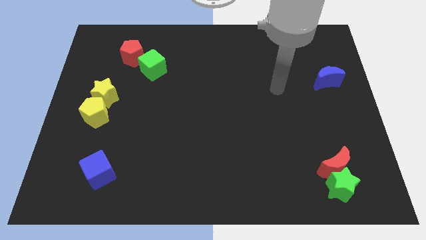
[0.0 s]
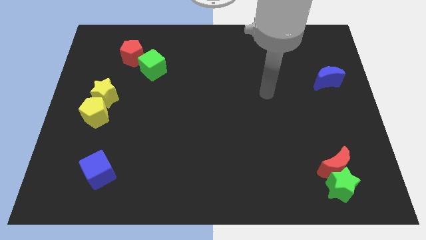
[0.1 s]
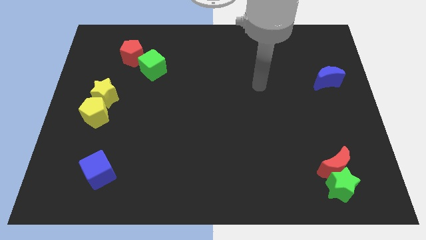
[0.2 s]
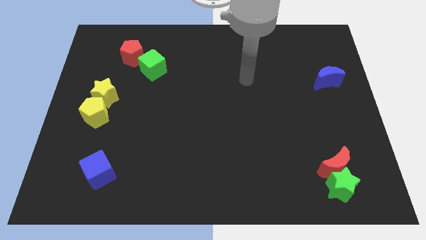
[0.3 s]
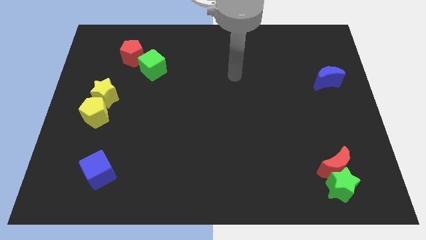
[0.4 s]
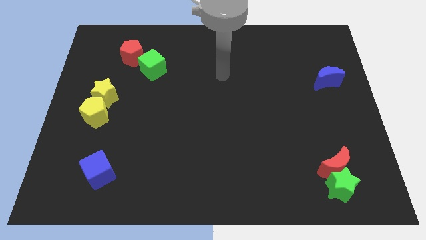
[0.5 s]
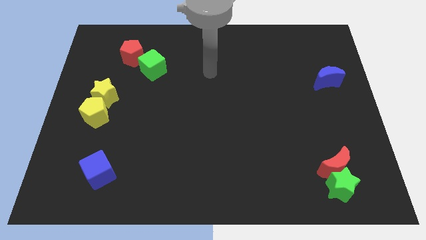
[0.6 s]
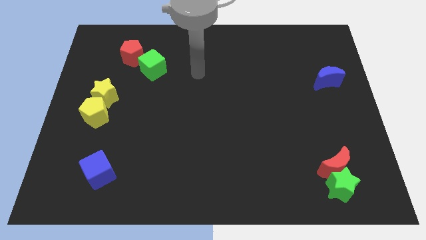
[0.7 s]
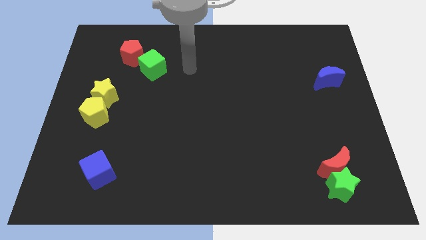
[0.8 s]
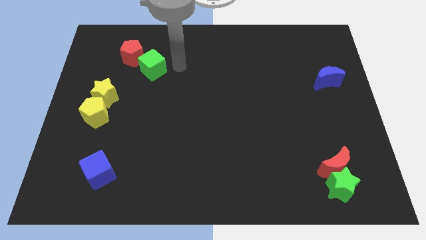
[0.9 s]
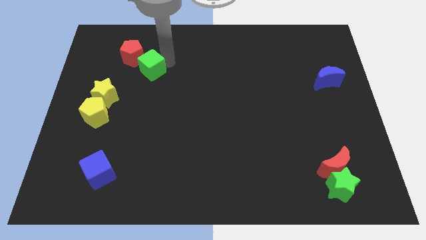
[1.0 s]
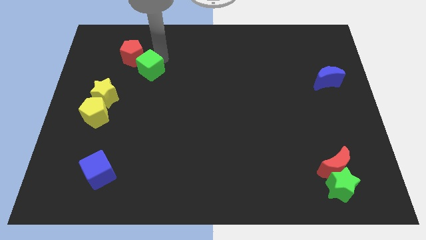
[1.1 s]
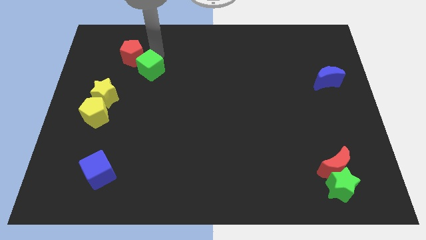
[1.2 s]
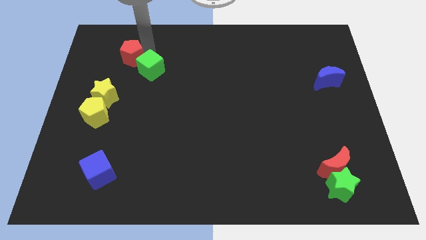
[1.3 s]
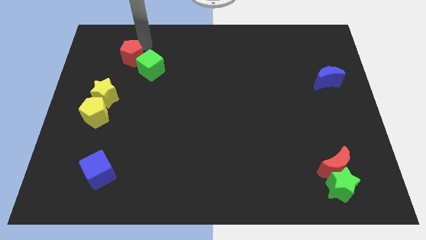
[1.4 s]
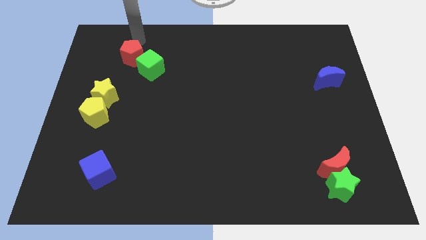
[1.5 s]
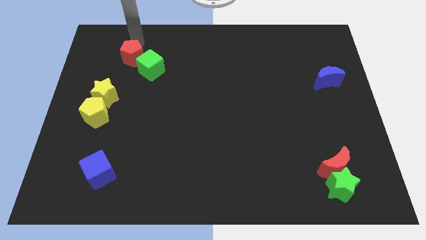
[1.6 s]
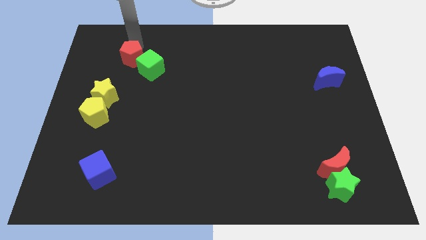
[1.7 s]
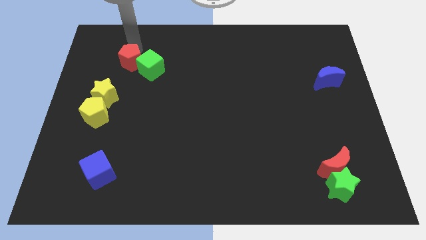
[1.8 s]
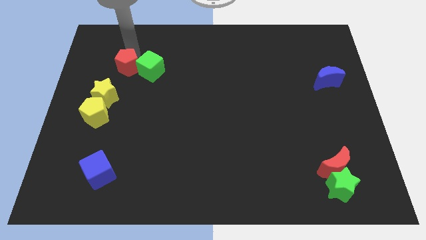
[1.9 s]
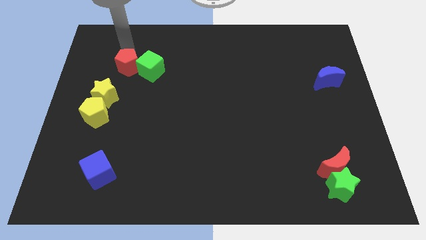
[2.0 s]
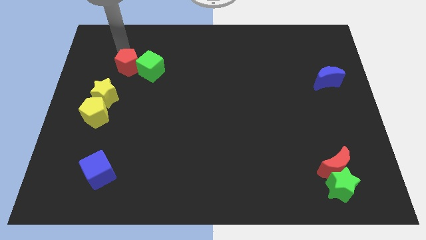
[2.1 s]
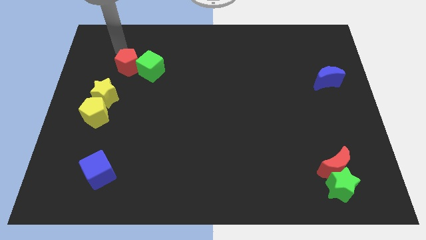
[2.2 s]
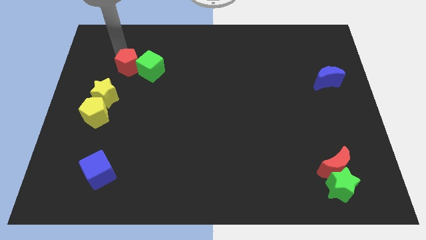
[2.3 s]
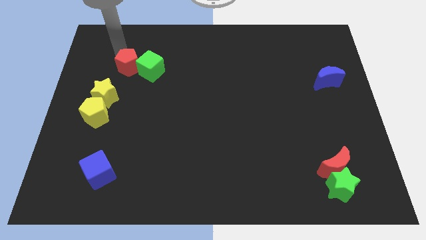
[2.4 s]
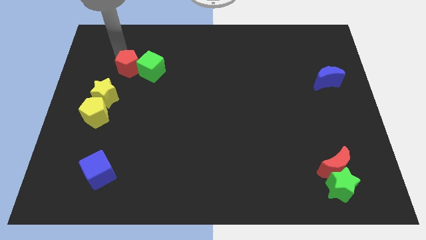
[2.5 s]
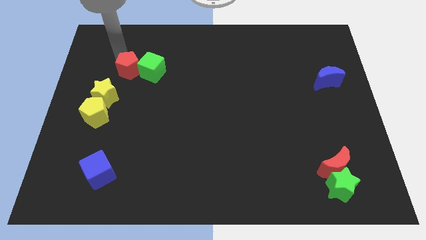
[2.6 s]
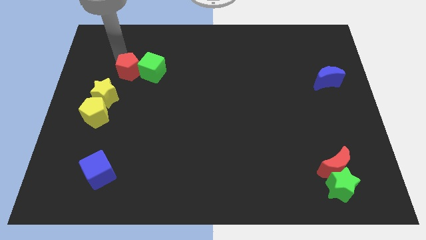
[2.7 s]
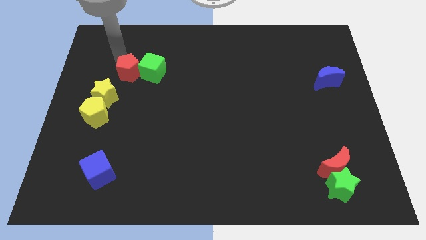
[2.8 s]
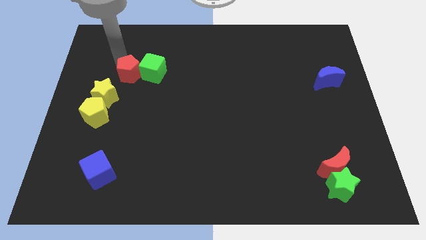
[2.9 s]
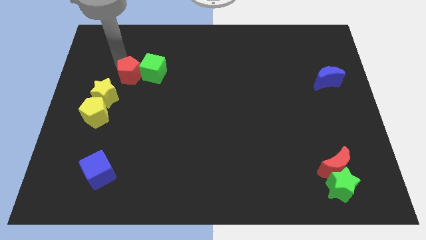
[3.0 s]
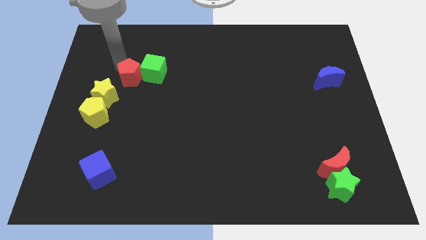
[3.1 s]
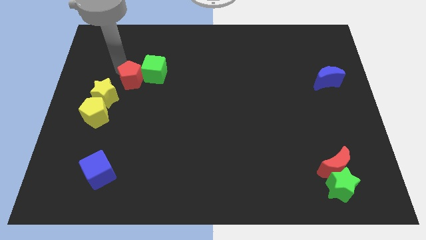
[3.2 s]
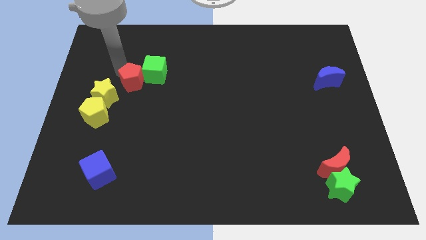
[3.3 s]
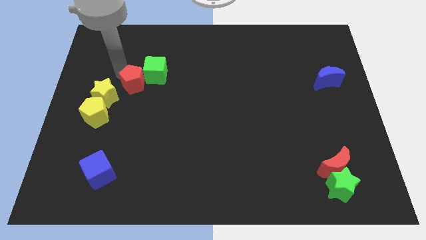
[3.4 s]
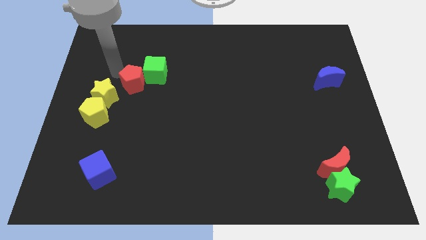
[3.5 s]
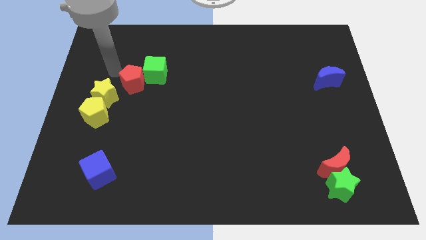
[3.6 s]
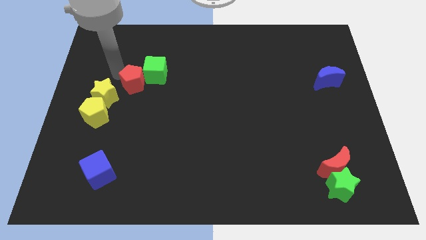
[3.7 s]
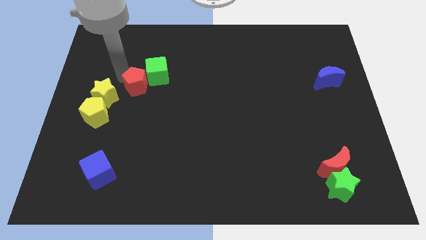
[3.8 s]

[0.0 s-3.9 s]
slightly move the red pentagon down and to the right

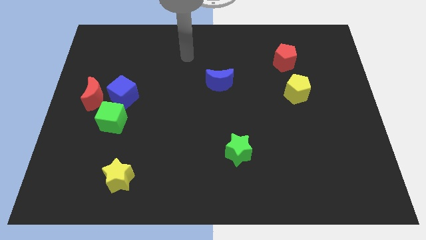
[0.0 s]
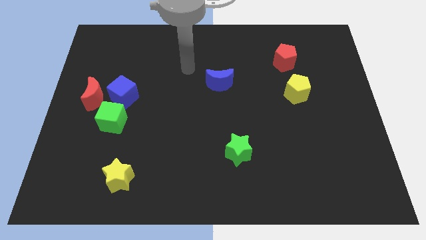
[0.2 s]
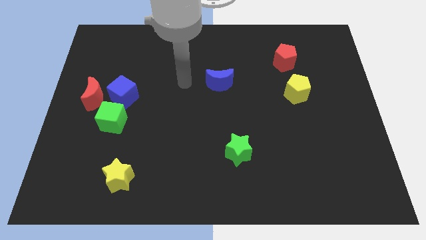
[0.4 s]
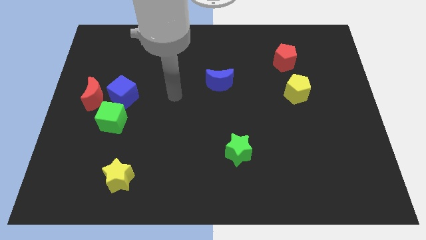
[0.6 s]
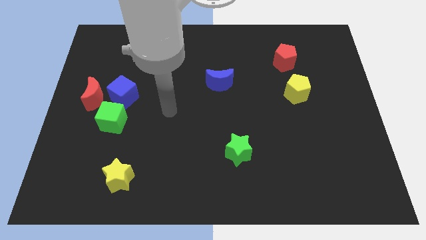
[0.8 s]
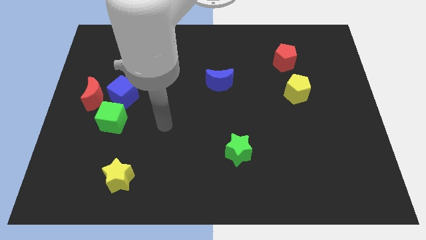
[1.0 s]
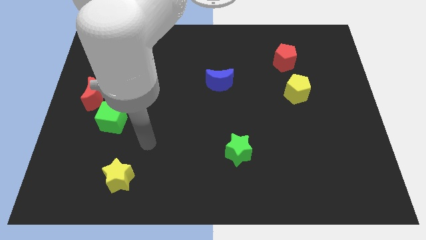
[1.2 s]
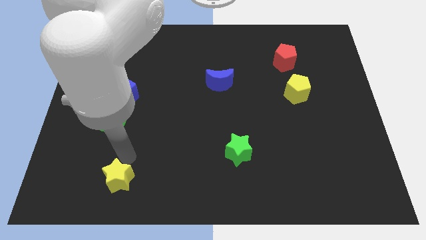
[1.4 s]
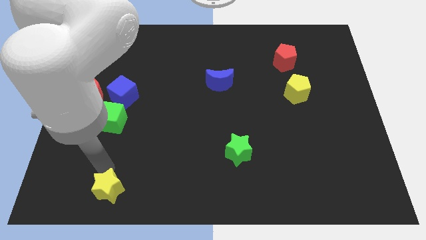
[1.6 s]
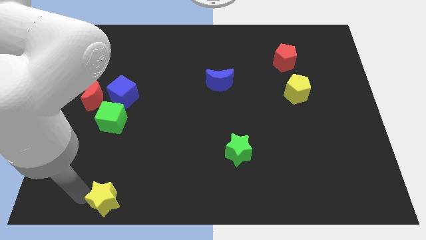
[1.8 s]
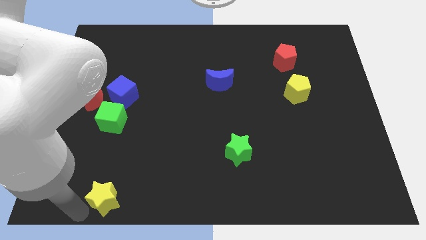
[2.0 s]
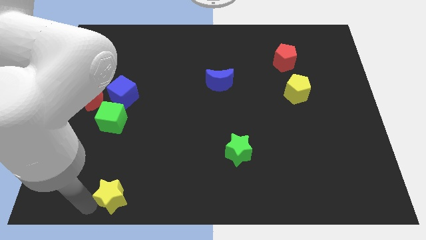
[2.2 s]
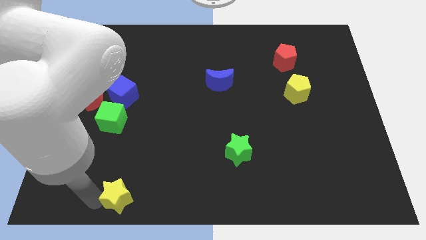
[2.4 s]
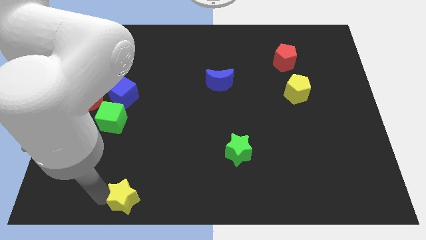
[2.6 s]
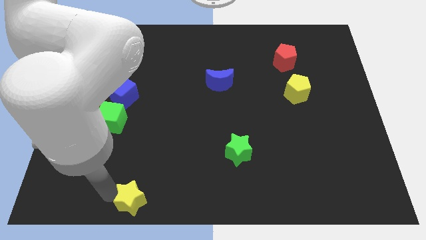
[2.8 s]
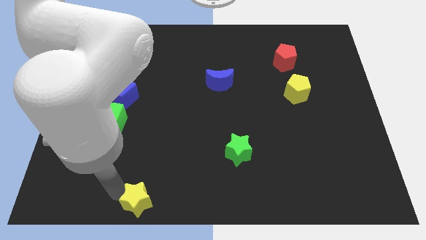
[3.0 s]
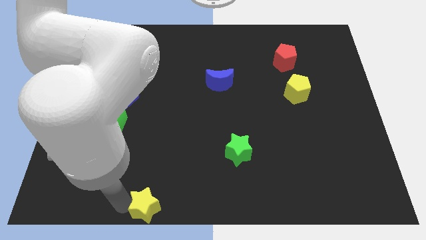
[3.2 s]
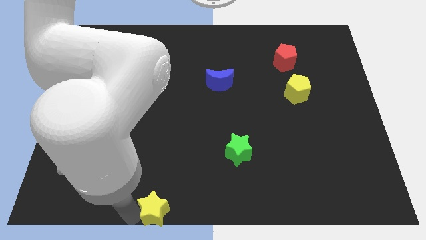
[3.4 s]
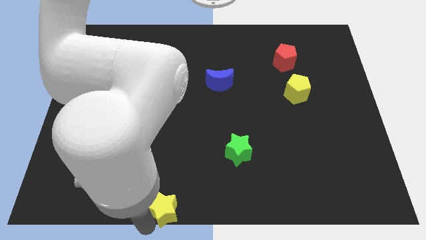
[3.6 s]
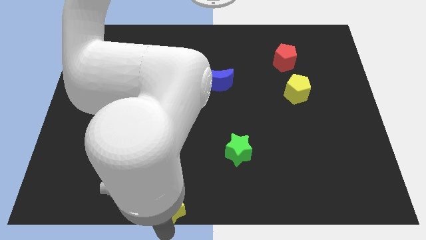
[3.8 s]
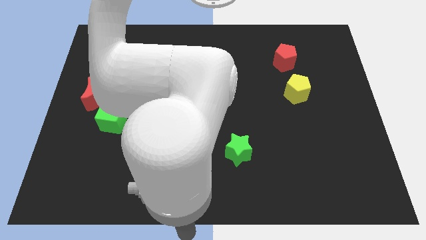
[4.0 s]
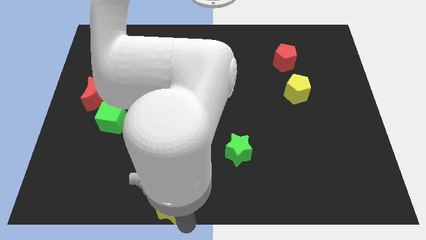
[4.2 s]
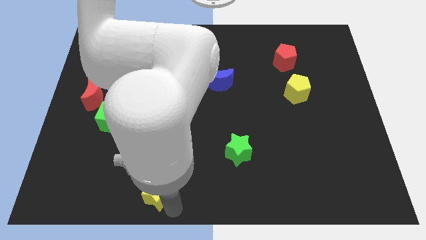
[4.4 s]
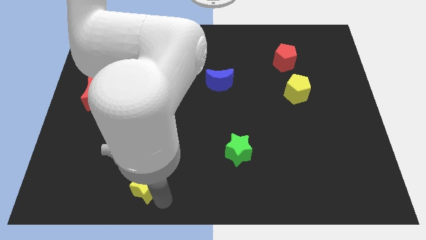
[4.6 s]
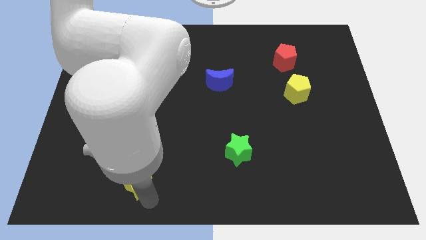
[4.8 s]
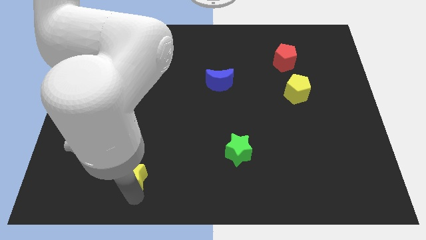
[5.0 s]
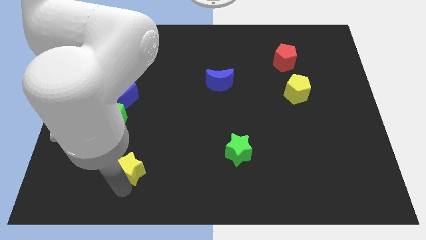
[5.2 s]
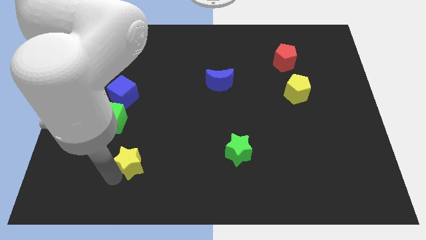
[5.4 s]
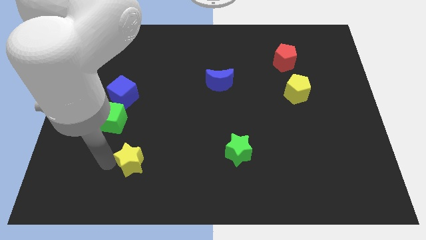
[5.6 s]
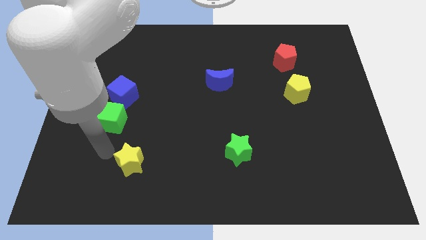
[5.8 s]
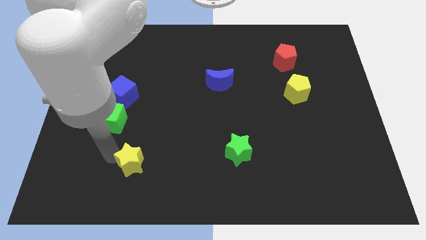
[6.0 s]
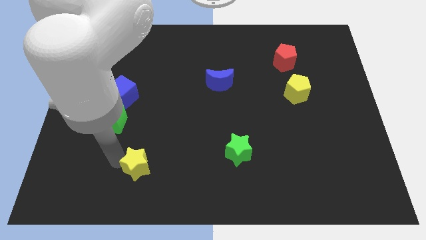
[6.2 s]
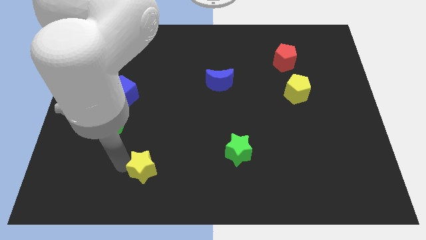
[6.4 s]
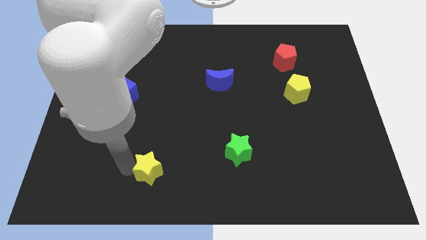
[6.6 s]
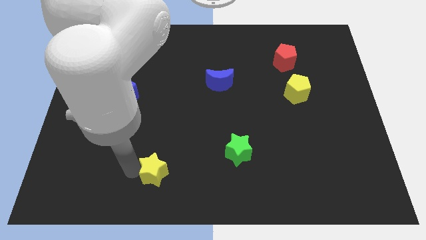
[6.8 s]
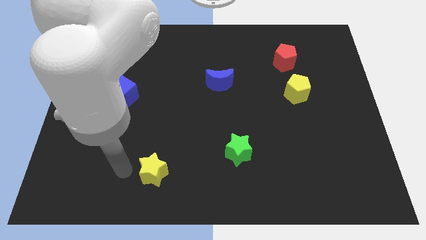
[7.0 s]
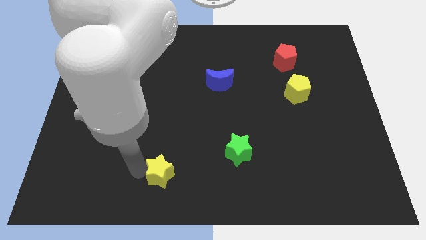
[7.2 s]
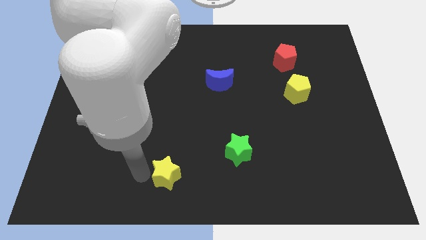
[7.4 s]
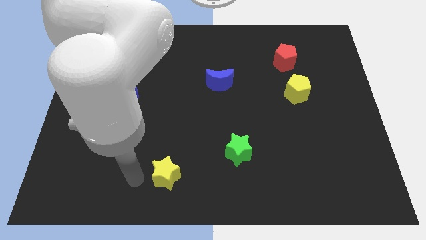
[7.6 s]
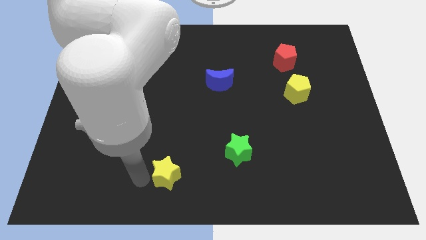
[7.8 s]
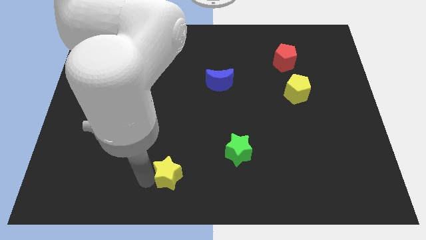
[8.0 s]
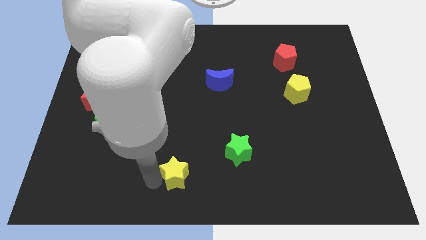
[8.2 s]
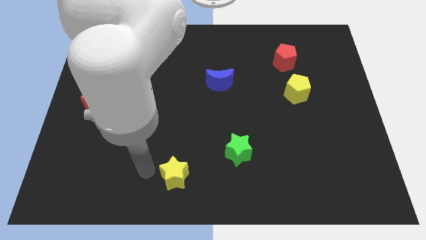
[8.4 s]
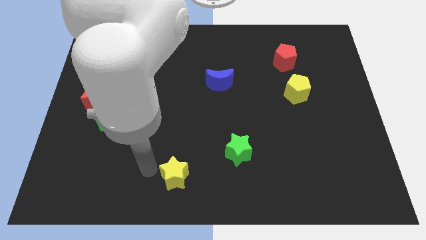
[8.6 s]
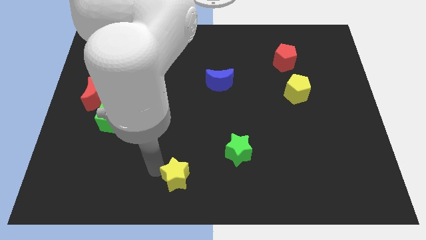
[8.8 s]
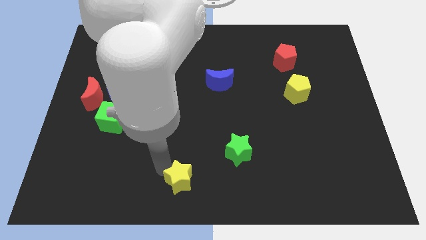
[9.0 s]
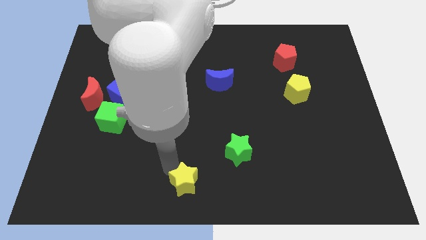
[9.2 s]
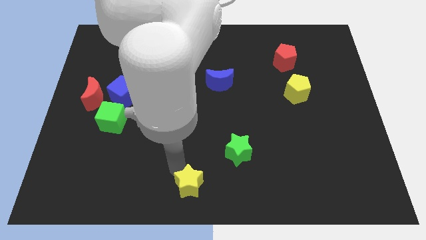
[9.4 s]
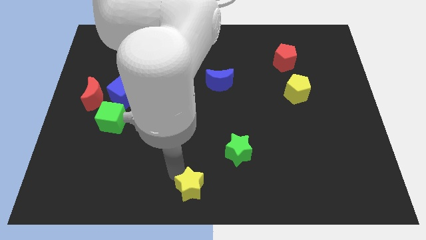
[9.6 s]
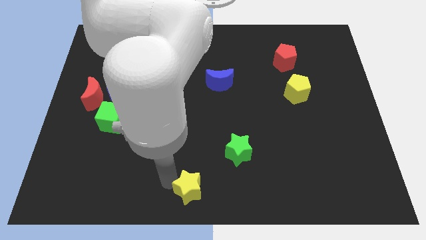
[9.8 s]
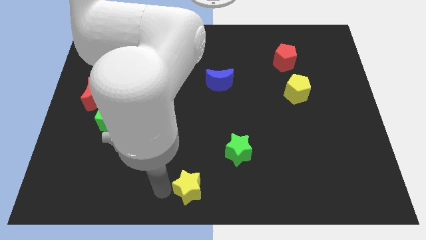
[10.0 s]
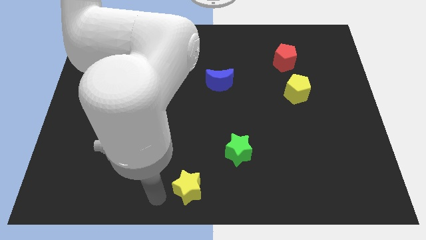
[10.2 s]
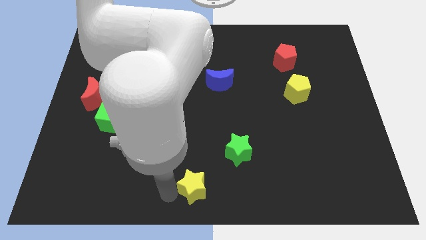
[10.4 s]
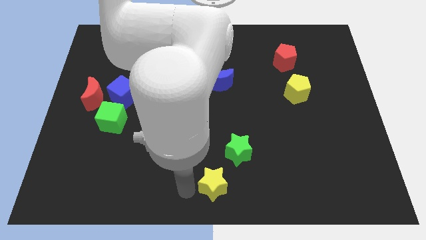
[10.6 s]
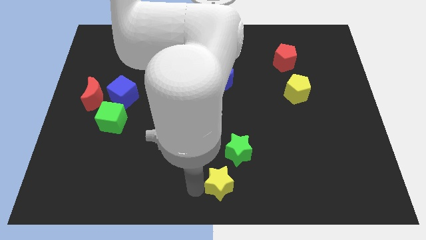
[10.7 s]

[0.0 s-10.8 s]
slide the yellow star right
